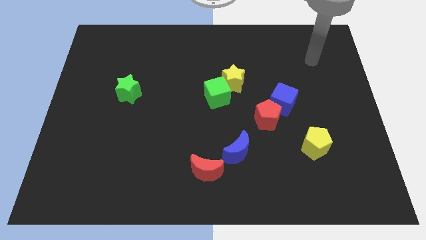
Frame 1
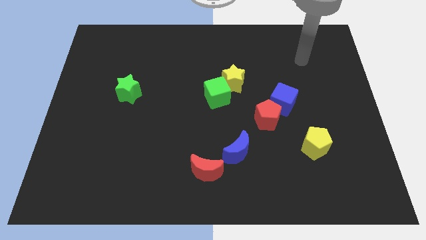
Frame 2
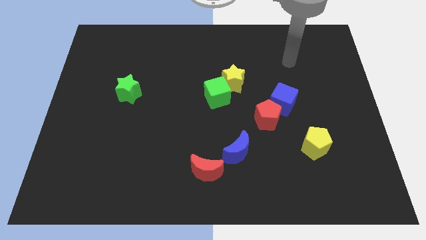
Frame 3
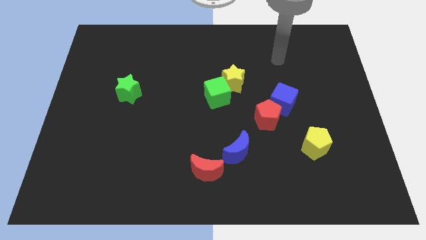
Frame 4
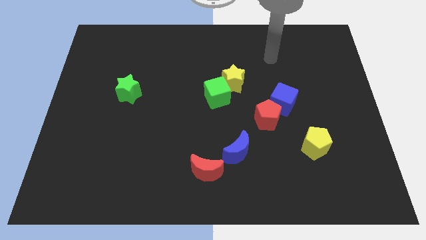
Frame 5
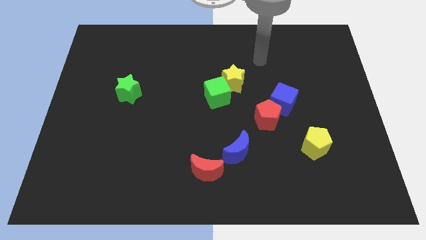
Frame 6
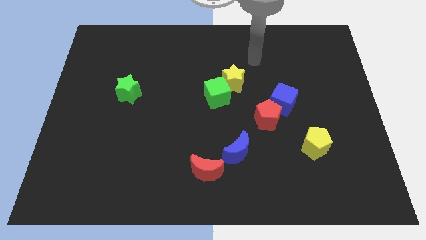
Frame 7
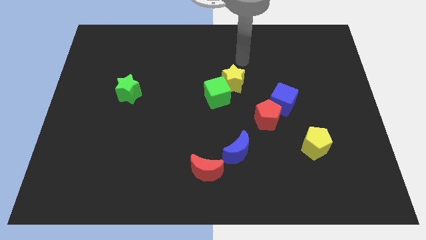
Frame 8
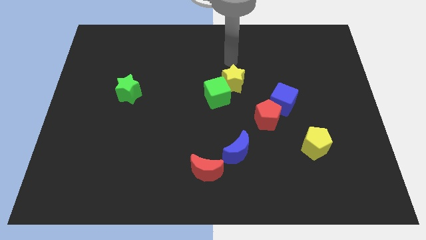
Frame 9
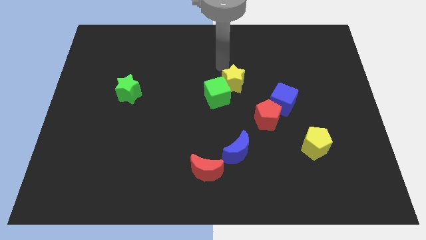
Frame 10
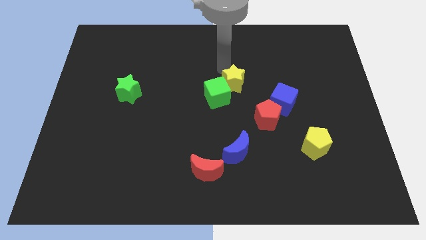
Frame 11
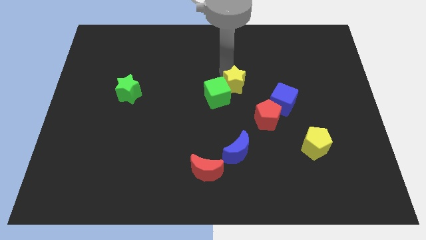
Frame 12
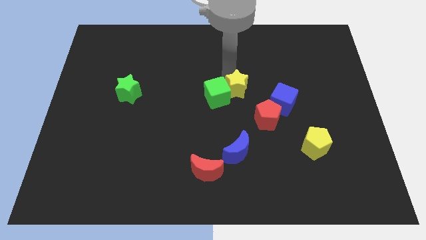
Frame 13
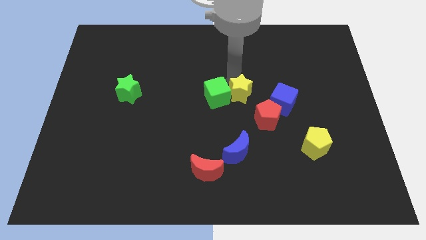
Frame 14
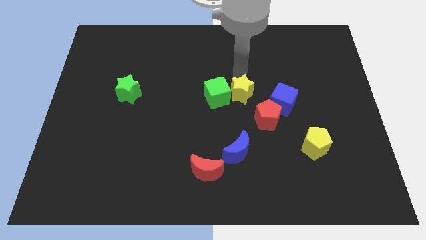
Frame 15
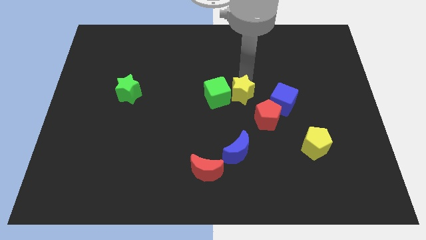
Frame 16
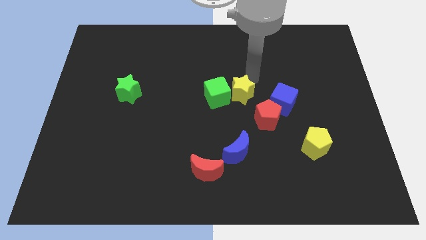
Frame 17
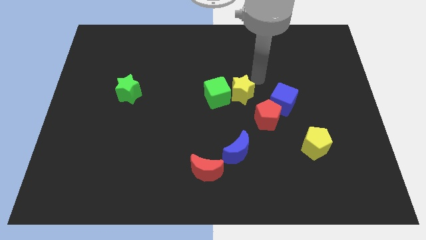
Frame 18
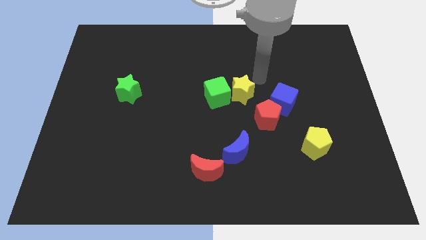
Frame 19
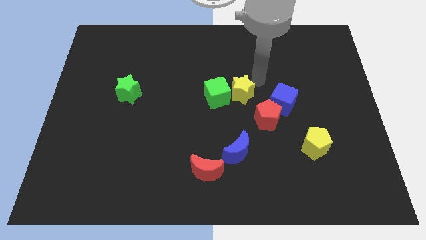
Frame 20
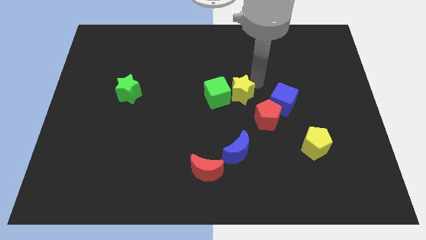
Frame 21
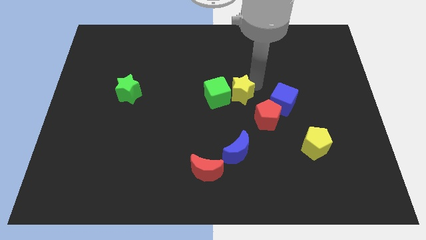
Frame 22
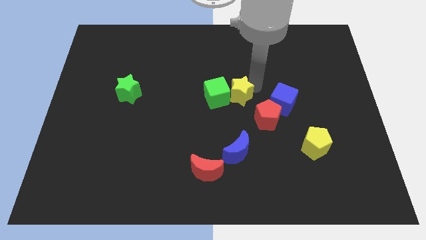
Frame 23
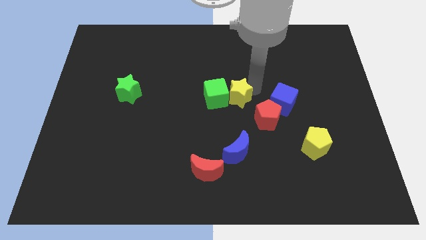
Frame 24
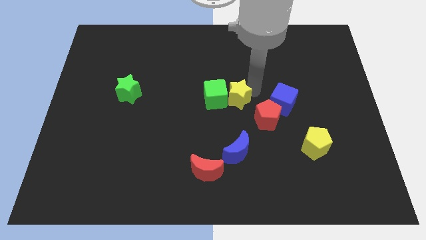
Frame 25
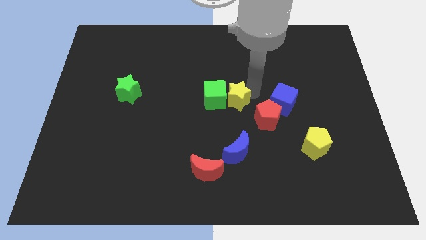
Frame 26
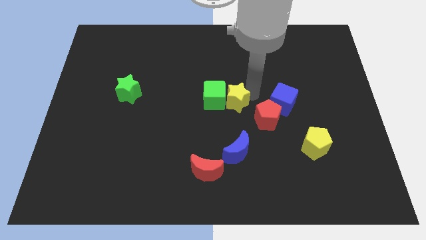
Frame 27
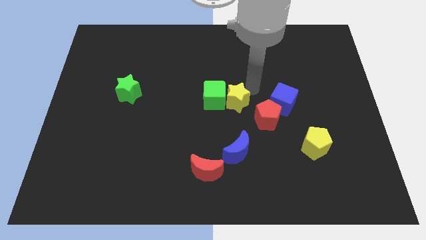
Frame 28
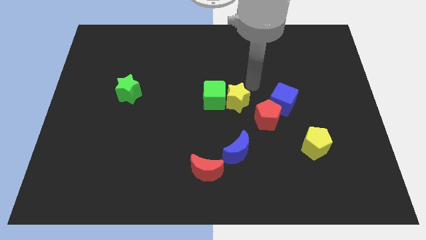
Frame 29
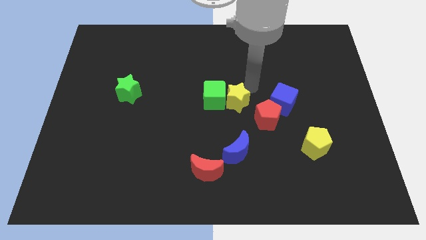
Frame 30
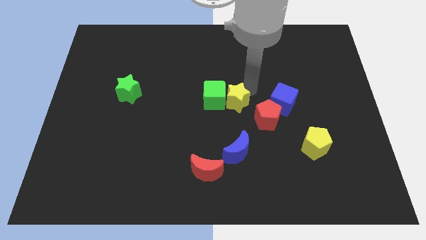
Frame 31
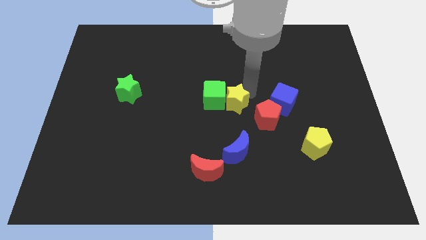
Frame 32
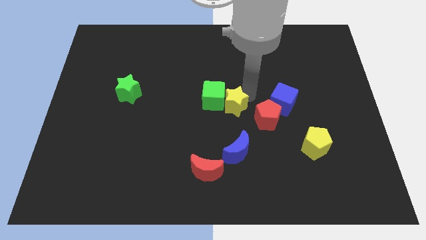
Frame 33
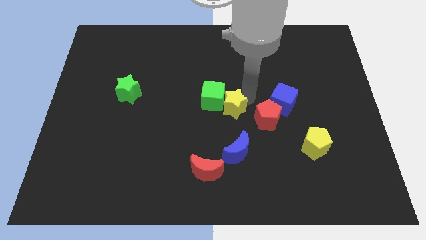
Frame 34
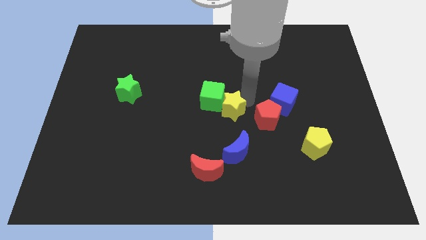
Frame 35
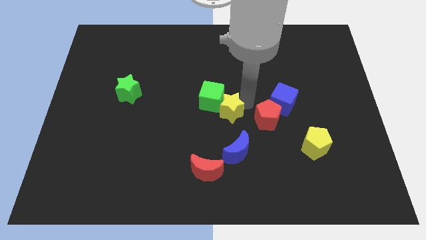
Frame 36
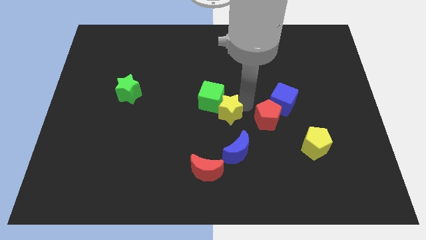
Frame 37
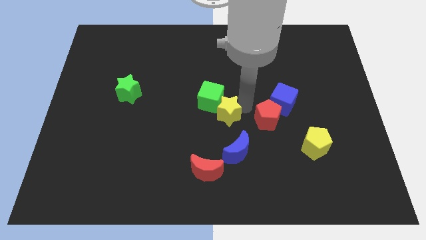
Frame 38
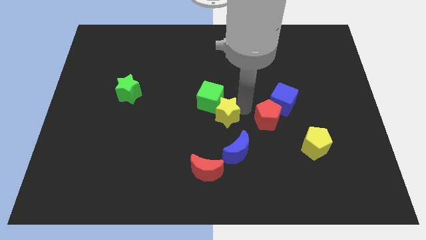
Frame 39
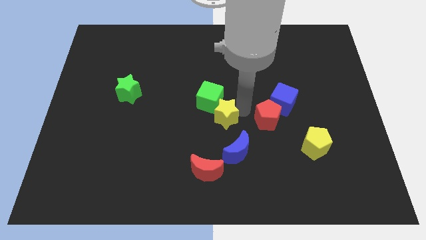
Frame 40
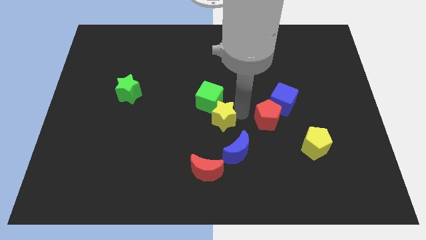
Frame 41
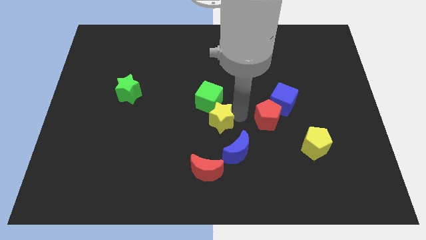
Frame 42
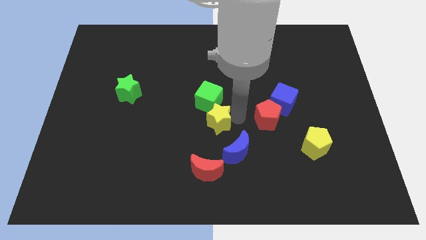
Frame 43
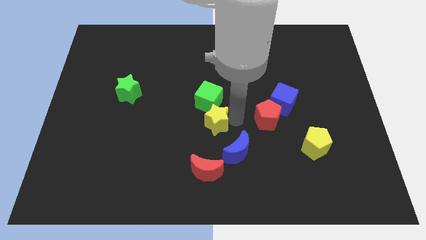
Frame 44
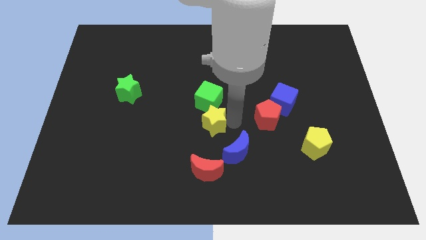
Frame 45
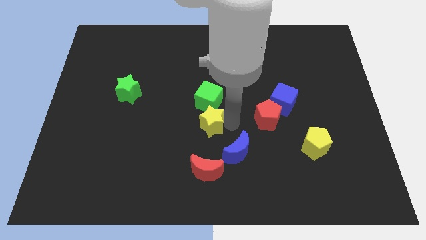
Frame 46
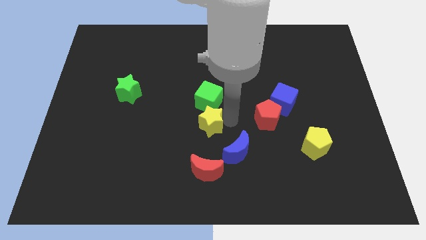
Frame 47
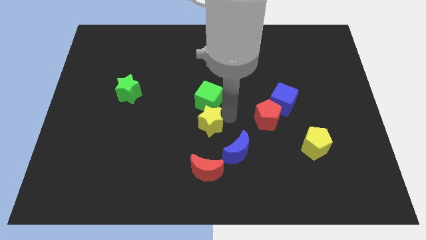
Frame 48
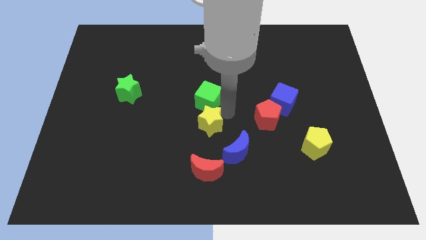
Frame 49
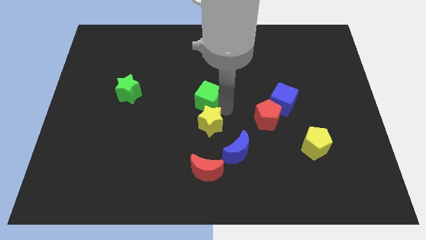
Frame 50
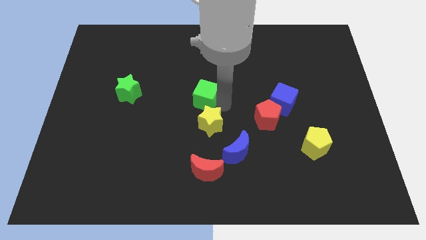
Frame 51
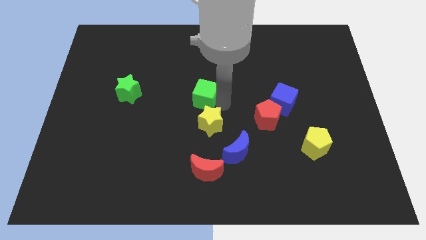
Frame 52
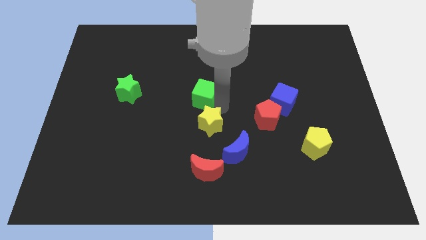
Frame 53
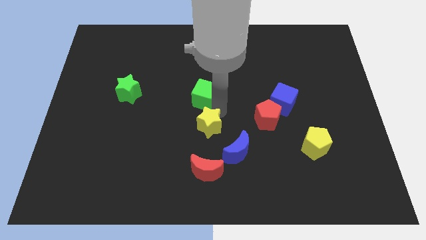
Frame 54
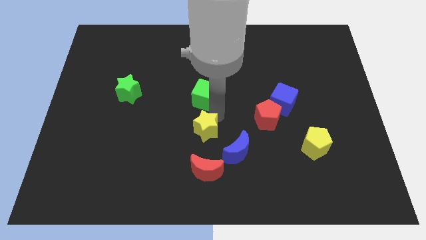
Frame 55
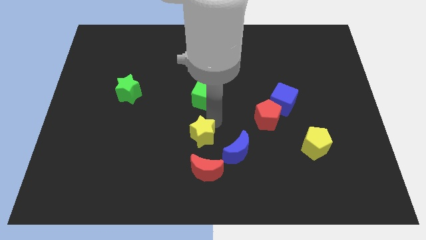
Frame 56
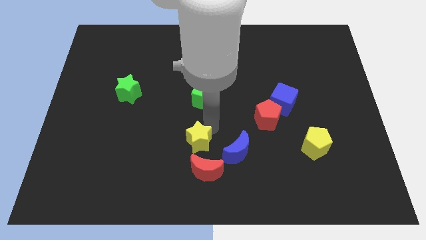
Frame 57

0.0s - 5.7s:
push the yellow star to the top left side of the red moon

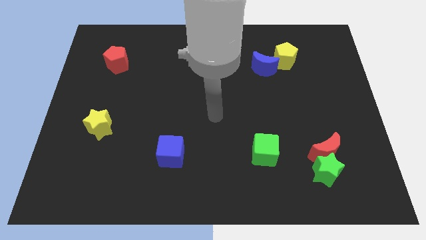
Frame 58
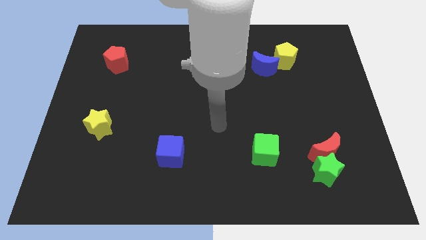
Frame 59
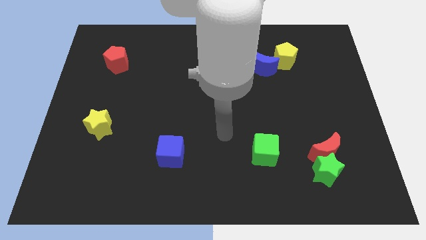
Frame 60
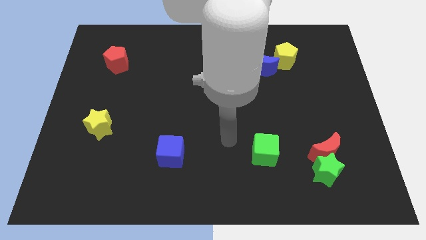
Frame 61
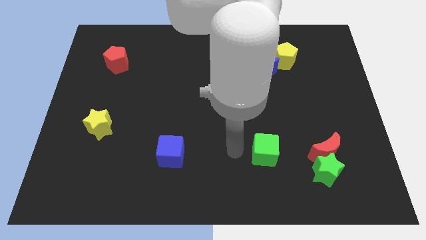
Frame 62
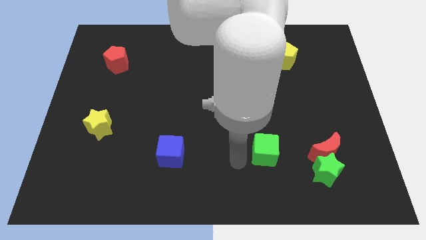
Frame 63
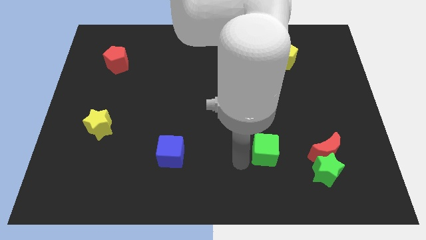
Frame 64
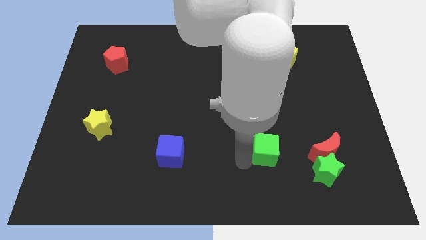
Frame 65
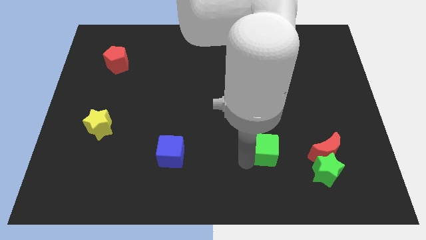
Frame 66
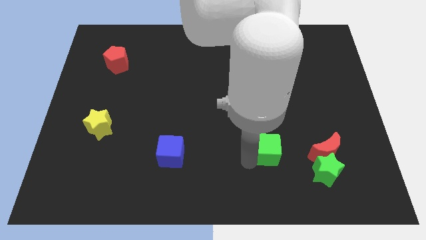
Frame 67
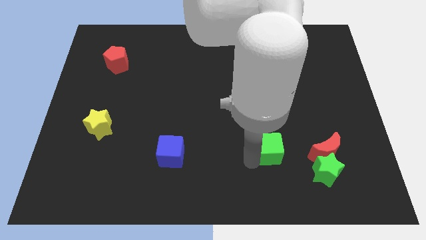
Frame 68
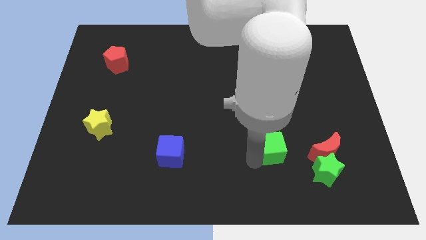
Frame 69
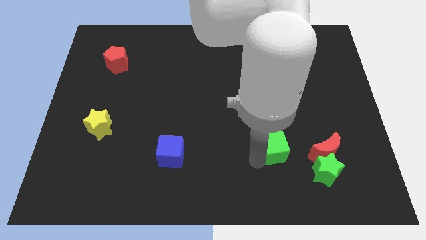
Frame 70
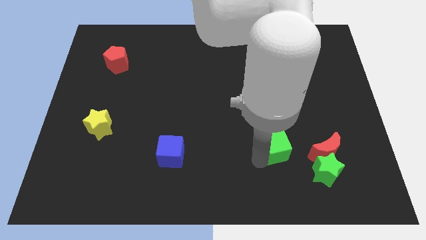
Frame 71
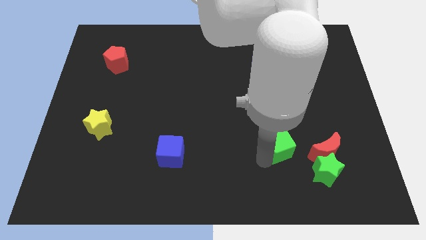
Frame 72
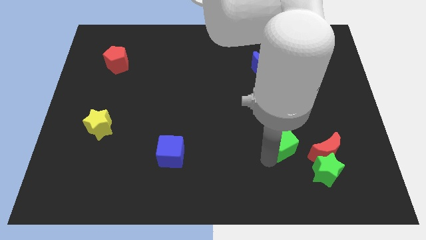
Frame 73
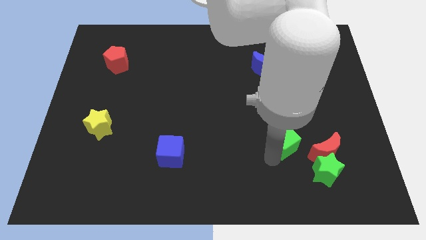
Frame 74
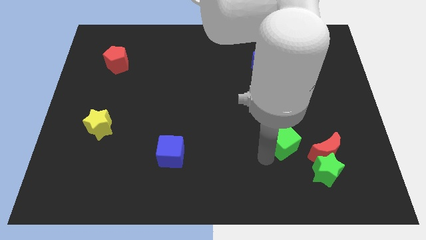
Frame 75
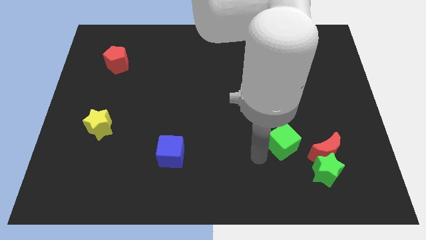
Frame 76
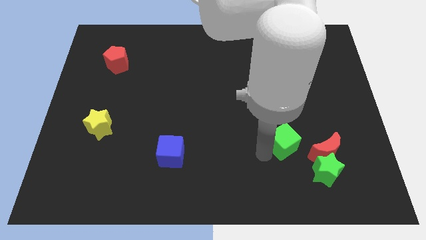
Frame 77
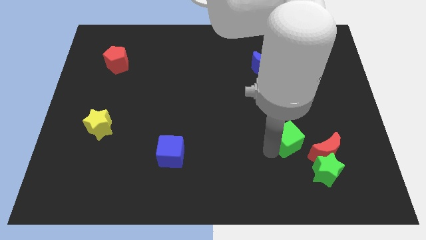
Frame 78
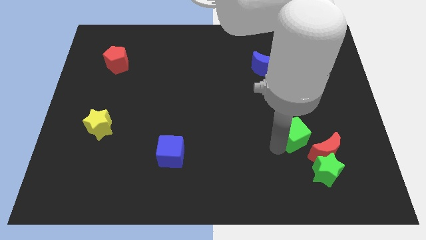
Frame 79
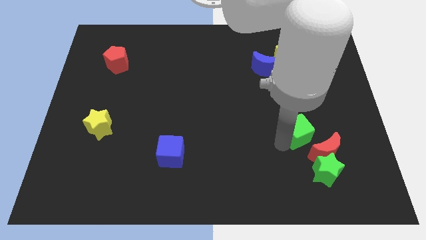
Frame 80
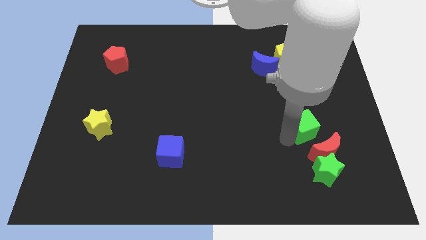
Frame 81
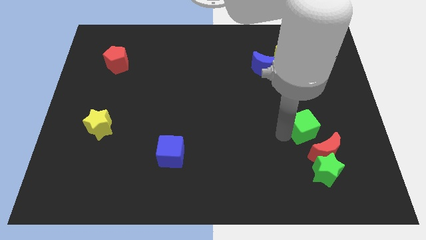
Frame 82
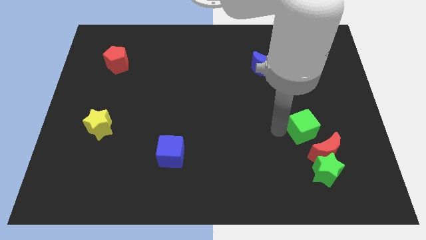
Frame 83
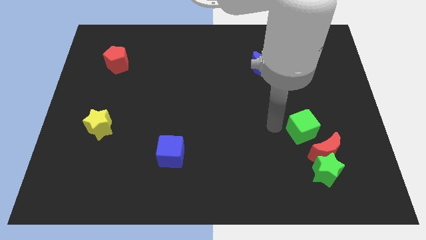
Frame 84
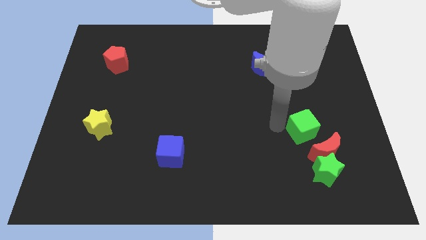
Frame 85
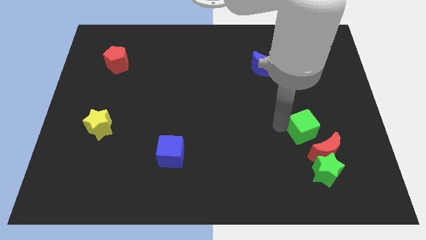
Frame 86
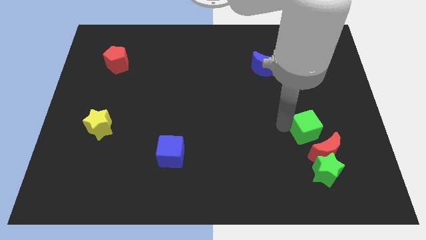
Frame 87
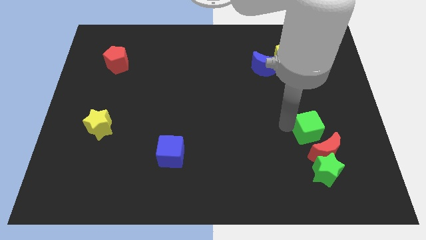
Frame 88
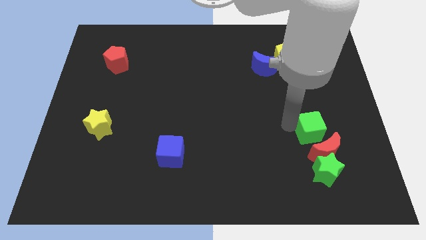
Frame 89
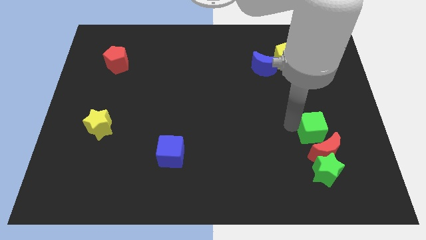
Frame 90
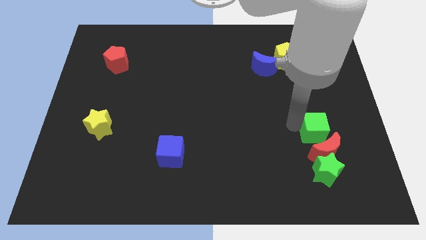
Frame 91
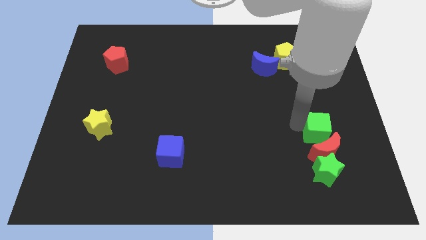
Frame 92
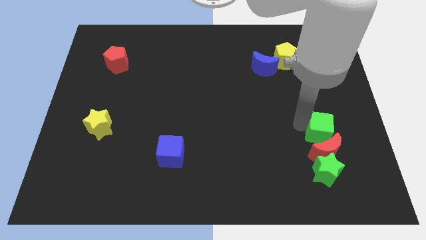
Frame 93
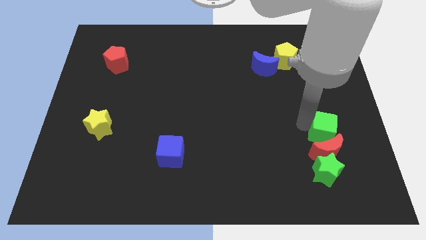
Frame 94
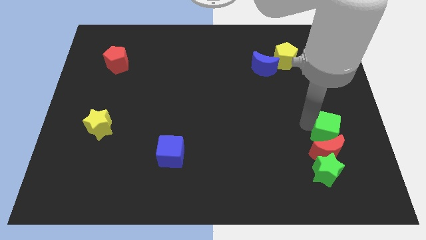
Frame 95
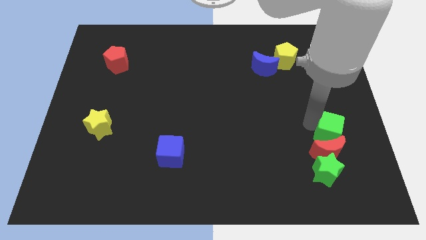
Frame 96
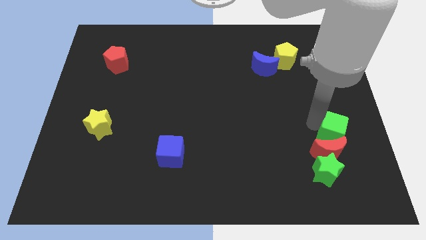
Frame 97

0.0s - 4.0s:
put the green cube diagonally up and to the right of the green star
